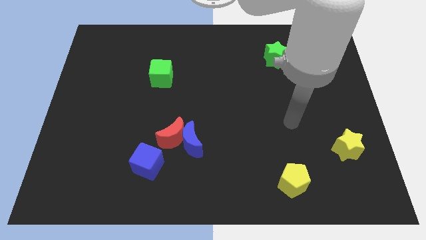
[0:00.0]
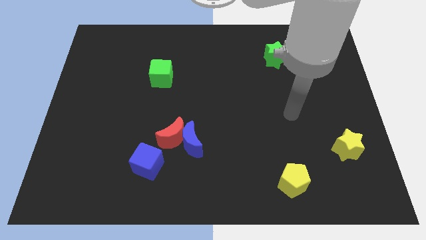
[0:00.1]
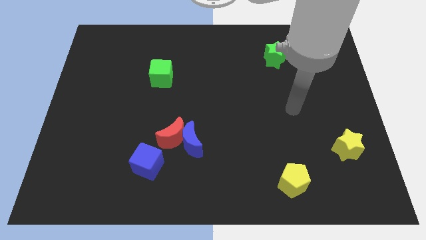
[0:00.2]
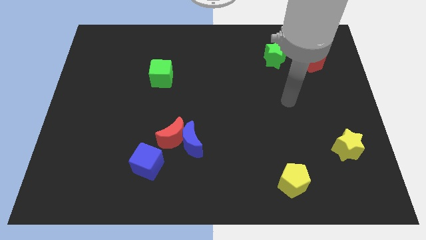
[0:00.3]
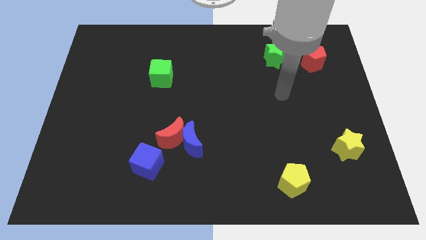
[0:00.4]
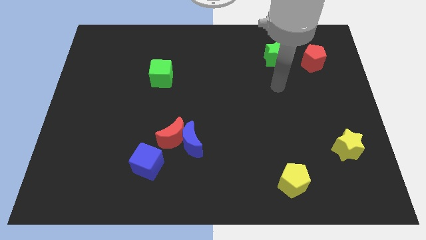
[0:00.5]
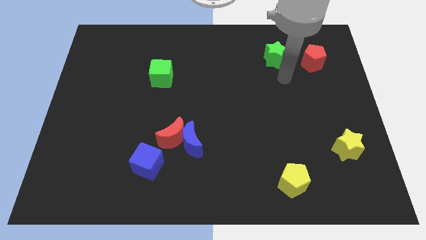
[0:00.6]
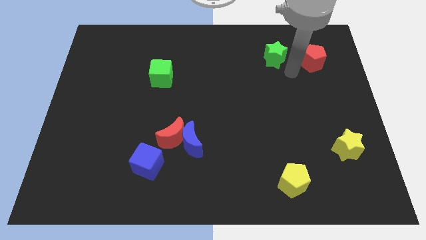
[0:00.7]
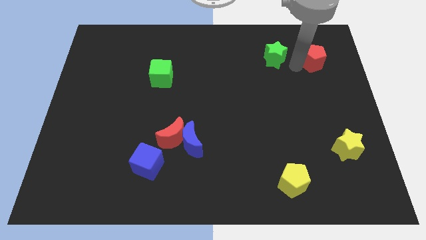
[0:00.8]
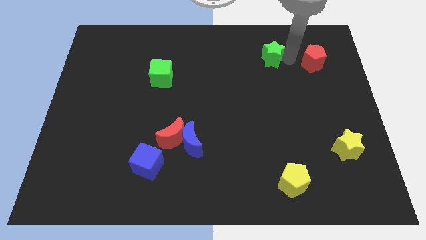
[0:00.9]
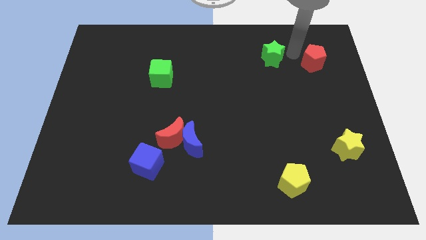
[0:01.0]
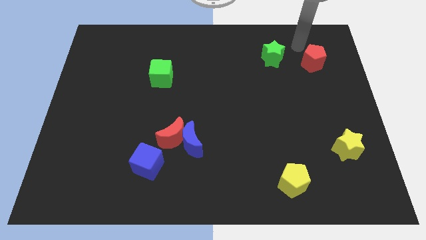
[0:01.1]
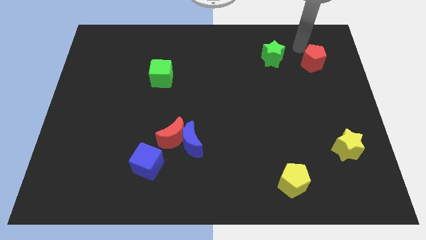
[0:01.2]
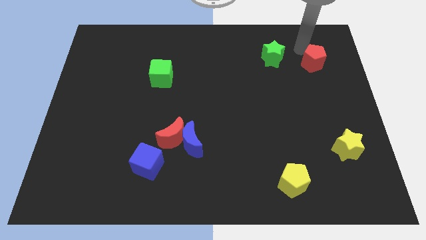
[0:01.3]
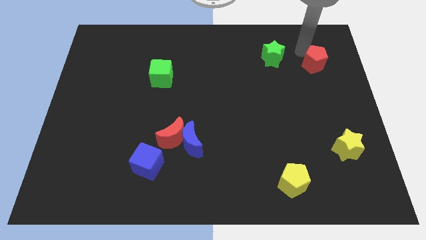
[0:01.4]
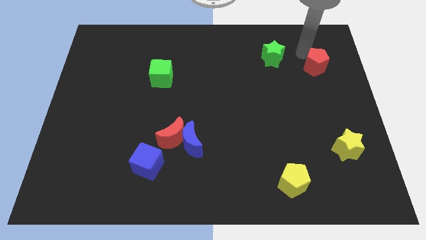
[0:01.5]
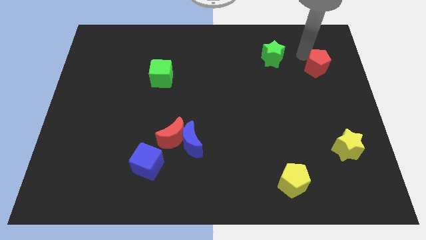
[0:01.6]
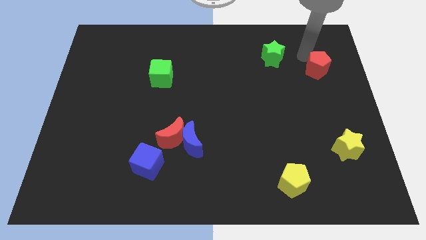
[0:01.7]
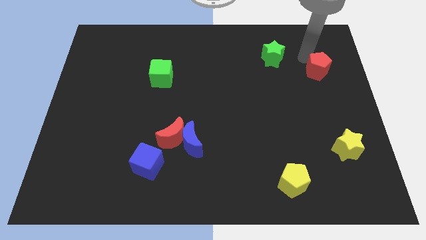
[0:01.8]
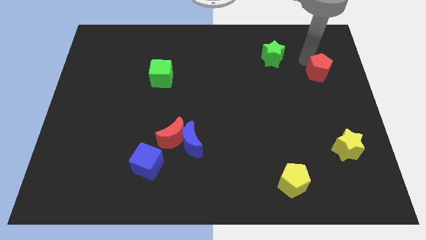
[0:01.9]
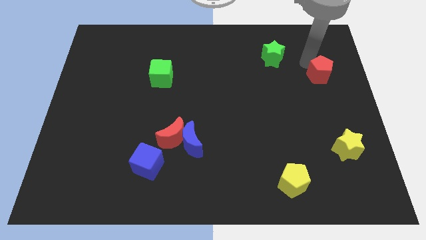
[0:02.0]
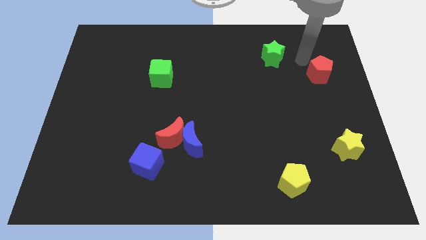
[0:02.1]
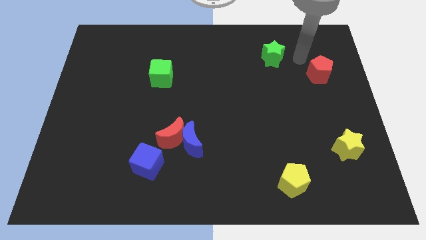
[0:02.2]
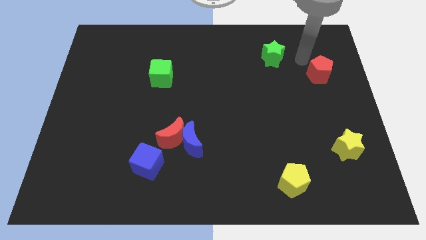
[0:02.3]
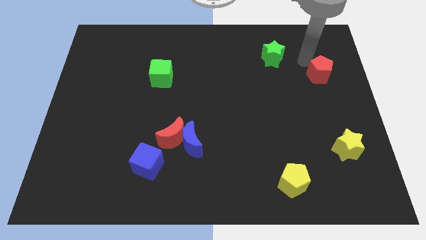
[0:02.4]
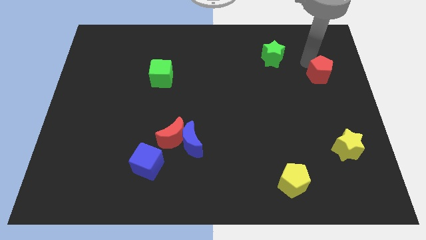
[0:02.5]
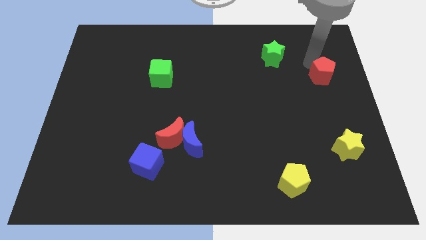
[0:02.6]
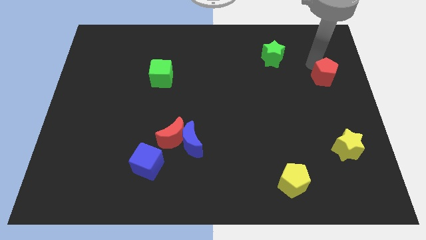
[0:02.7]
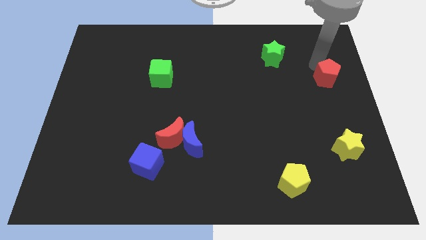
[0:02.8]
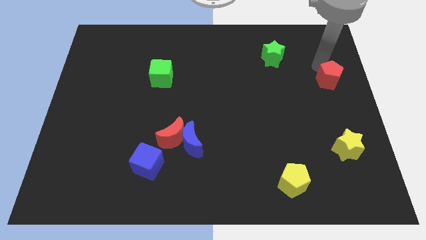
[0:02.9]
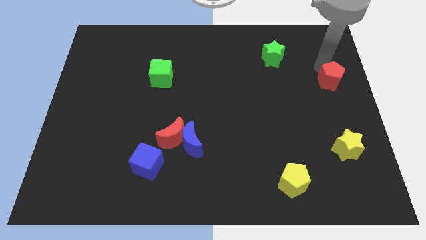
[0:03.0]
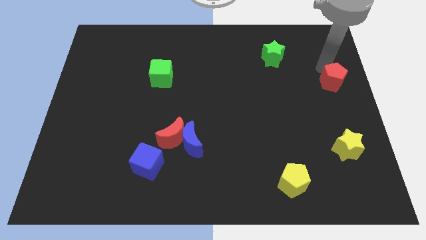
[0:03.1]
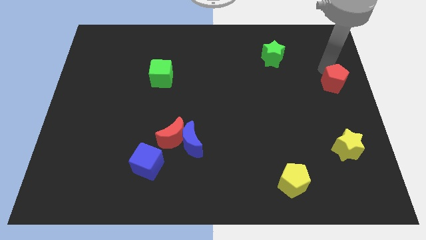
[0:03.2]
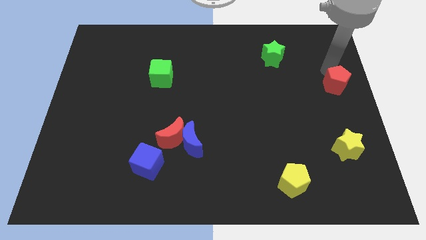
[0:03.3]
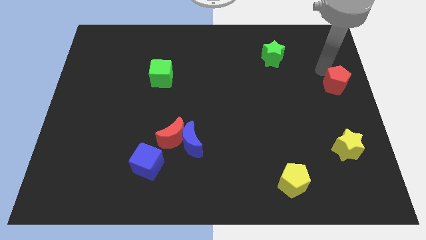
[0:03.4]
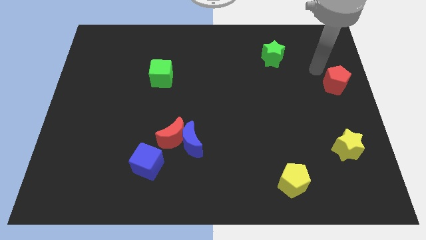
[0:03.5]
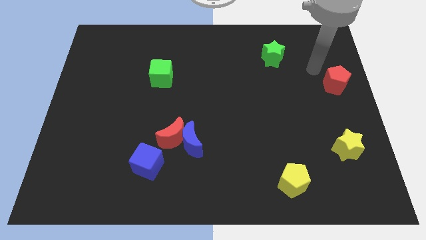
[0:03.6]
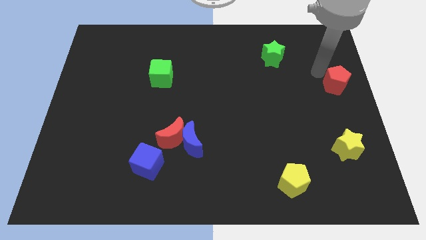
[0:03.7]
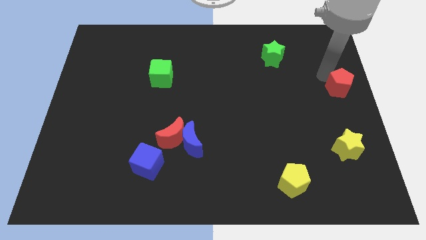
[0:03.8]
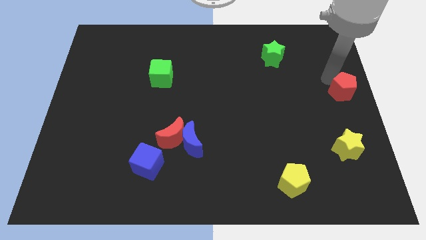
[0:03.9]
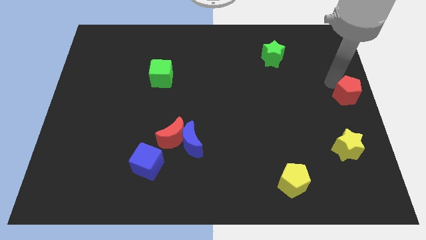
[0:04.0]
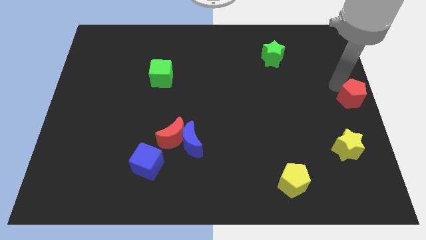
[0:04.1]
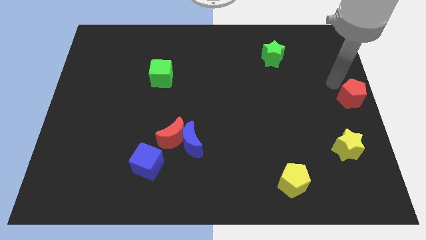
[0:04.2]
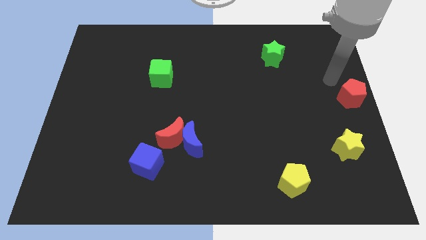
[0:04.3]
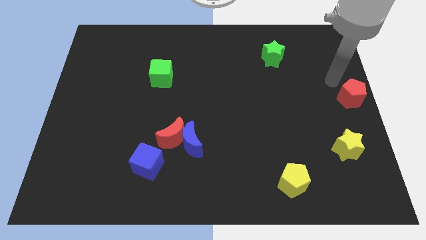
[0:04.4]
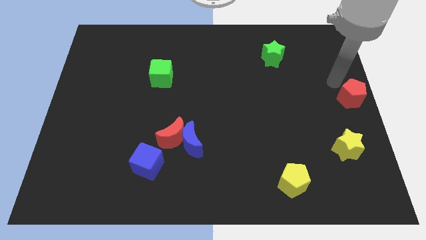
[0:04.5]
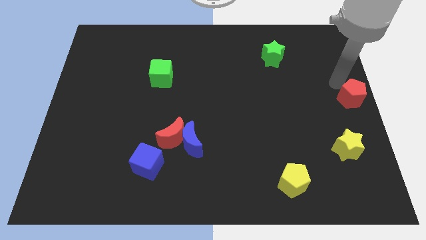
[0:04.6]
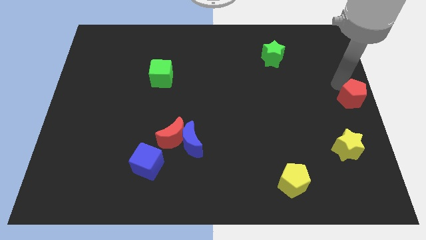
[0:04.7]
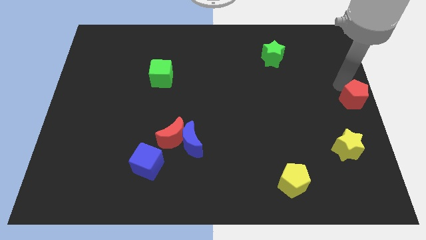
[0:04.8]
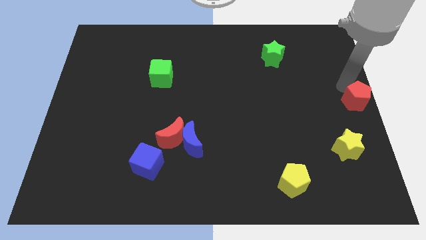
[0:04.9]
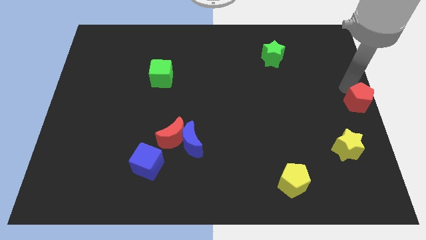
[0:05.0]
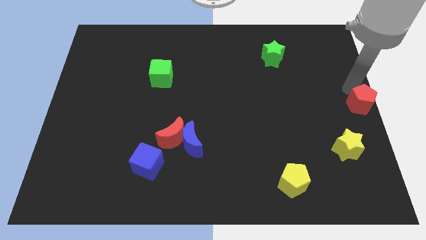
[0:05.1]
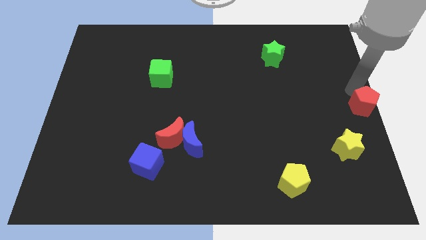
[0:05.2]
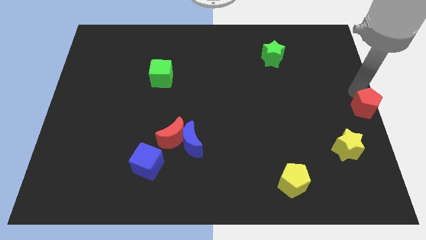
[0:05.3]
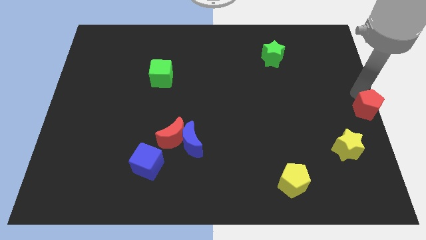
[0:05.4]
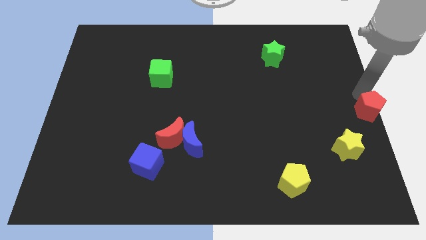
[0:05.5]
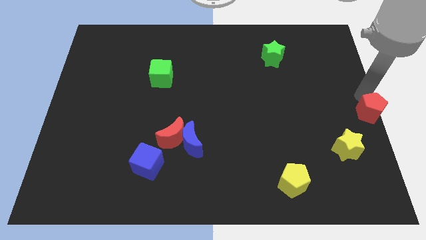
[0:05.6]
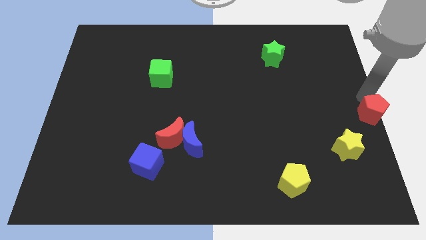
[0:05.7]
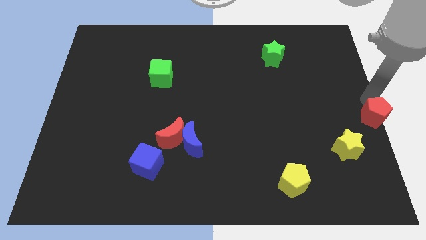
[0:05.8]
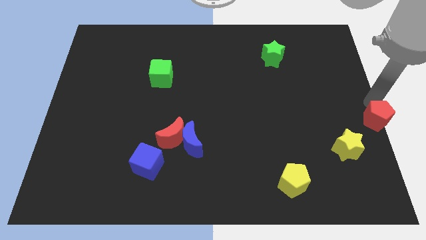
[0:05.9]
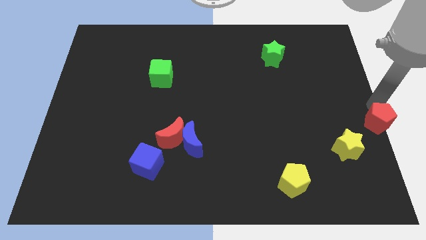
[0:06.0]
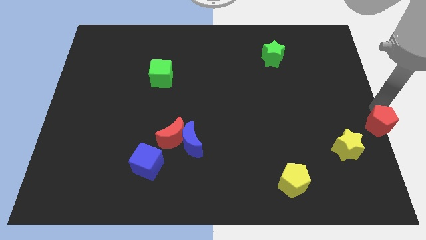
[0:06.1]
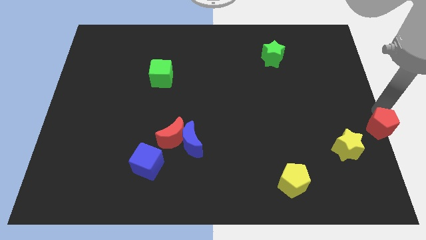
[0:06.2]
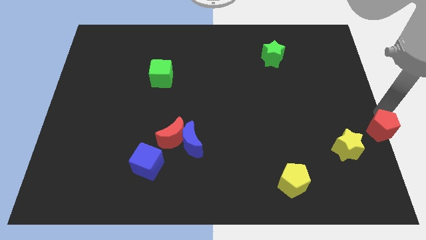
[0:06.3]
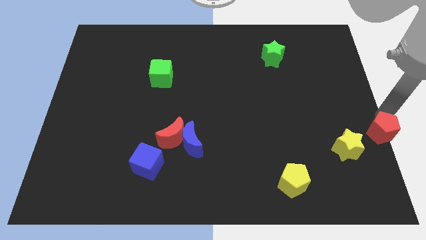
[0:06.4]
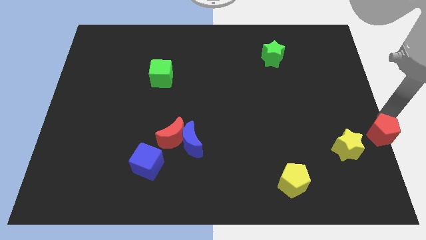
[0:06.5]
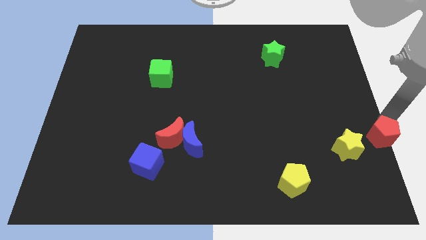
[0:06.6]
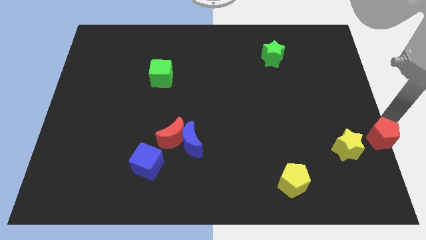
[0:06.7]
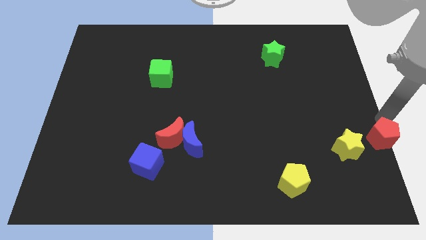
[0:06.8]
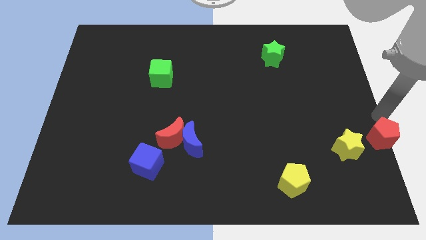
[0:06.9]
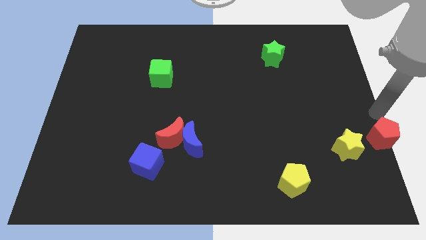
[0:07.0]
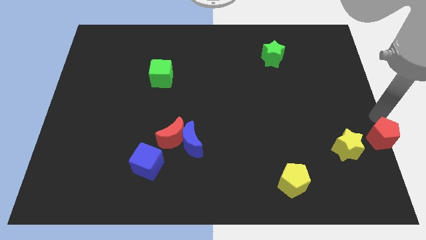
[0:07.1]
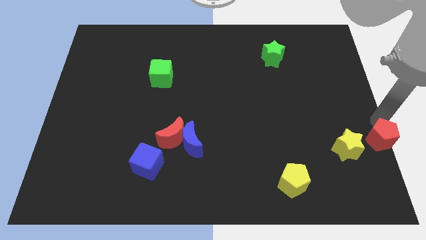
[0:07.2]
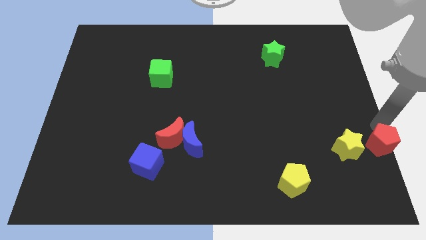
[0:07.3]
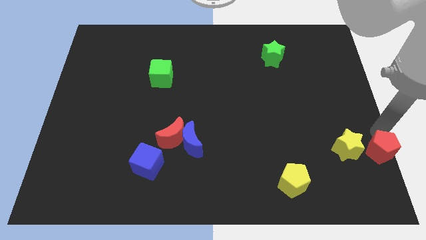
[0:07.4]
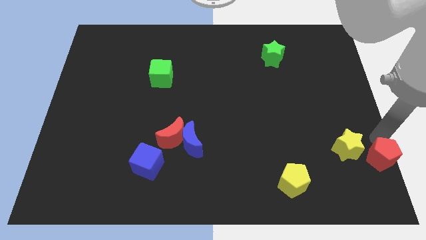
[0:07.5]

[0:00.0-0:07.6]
put the red pentagon to the bottom right corner
